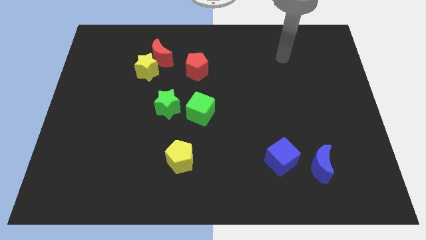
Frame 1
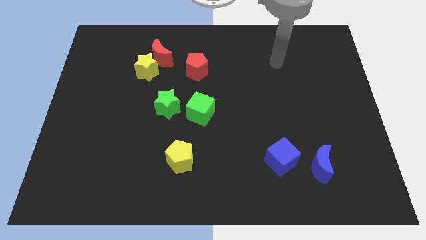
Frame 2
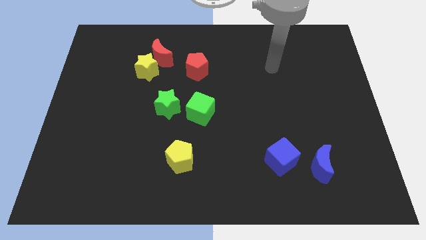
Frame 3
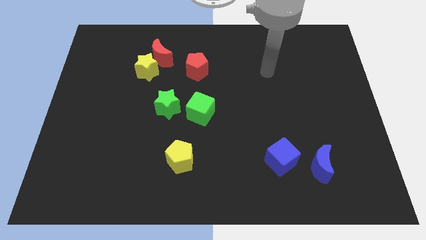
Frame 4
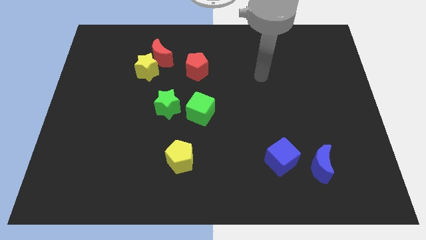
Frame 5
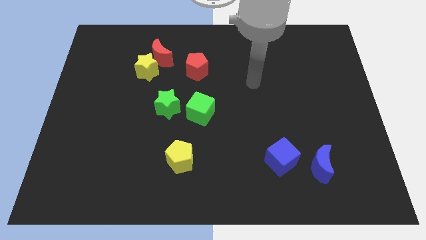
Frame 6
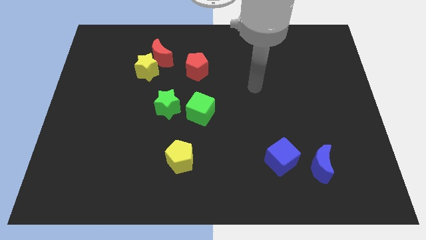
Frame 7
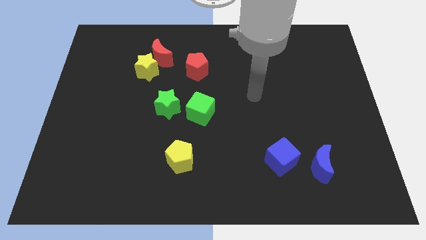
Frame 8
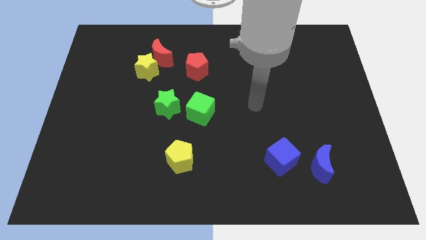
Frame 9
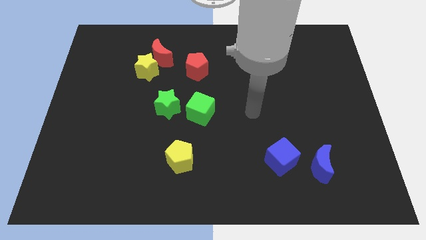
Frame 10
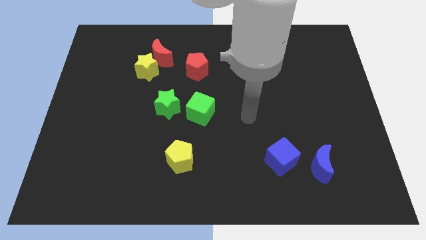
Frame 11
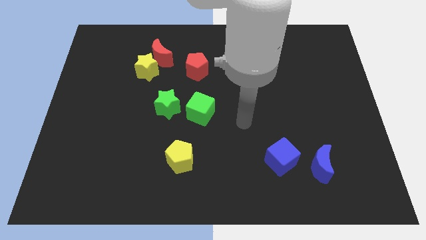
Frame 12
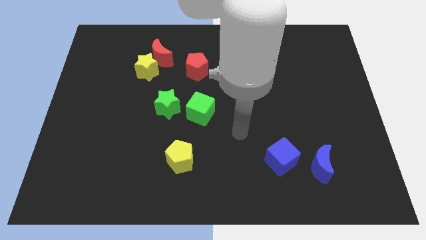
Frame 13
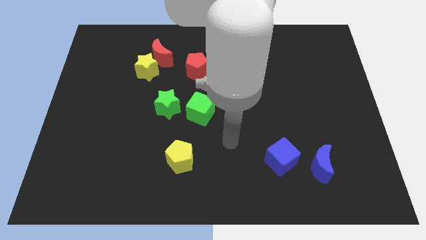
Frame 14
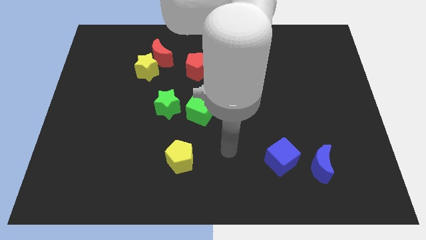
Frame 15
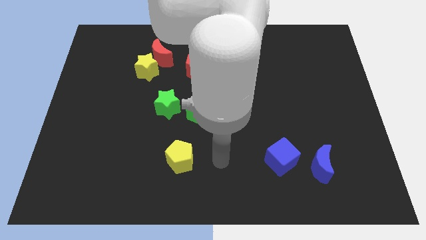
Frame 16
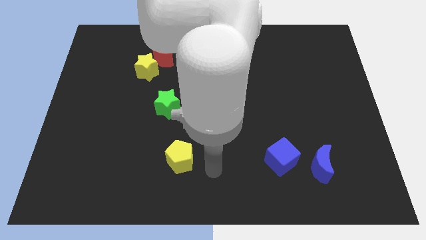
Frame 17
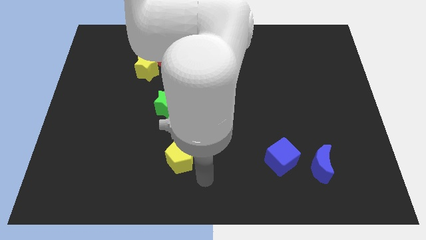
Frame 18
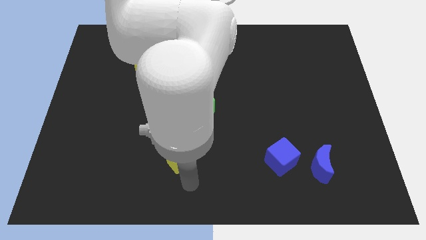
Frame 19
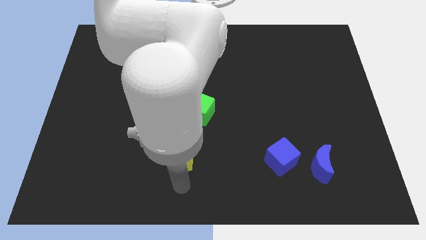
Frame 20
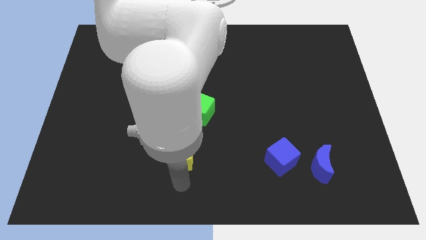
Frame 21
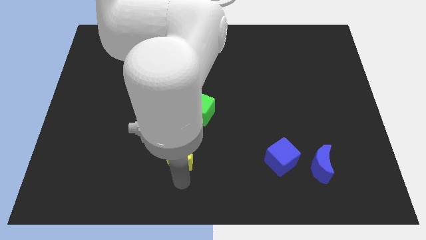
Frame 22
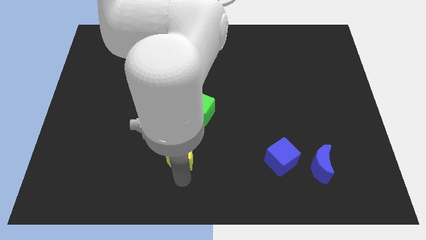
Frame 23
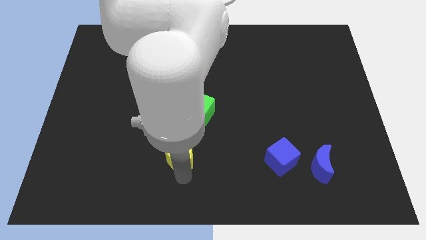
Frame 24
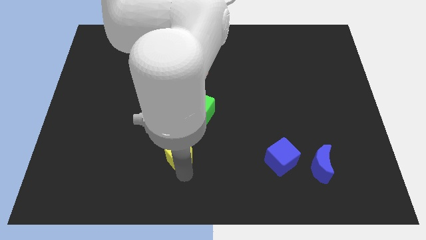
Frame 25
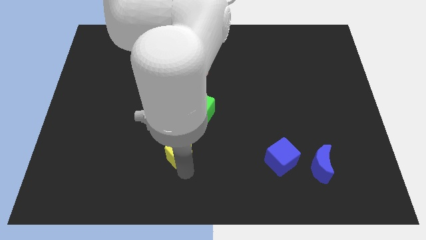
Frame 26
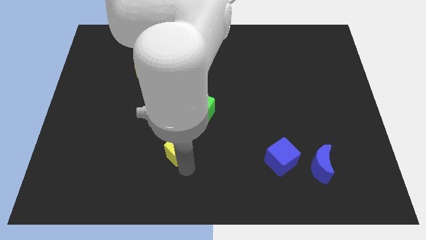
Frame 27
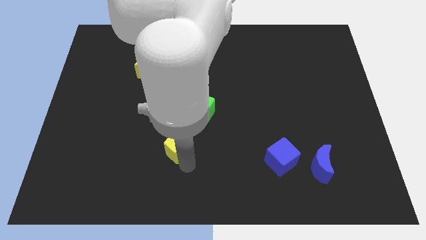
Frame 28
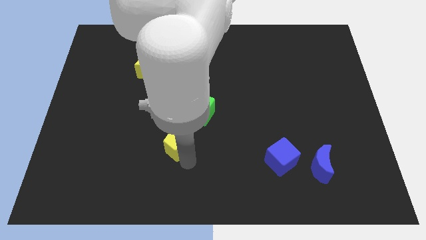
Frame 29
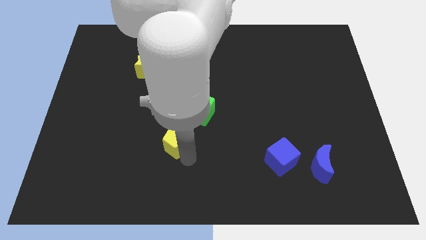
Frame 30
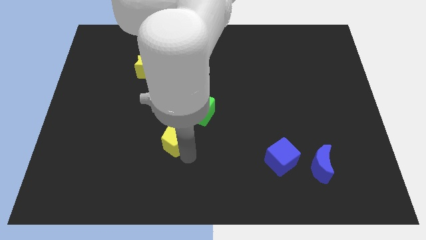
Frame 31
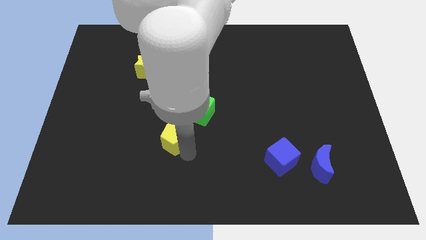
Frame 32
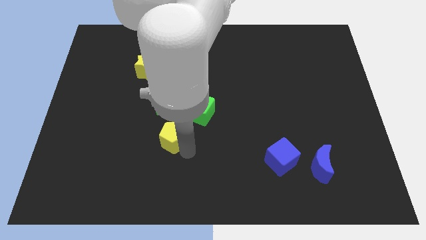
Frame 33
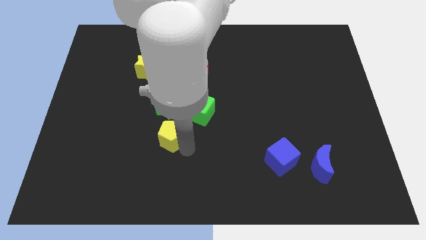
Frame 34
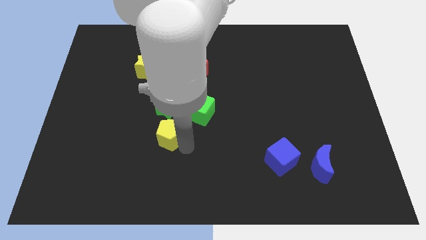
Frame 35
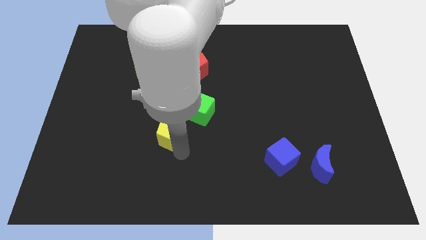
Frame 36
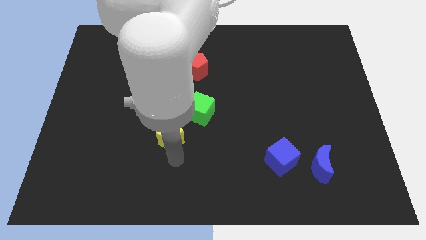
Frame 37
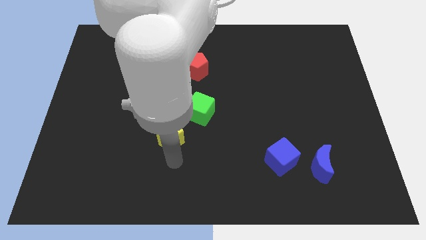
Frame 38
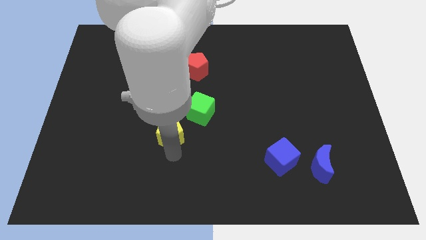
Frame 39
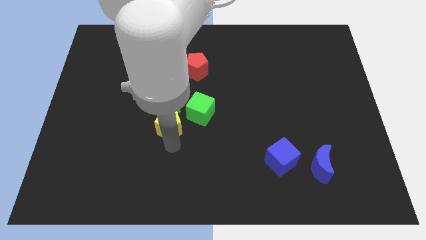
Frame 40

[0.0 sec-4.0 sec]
put the yellow pentagon to the green star

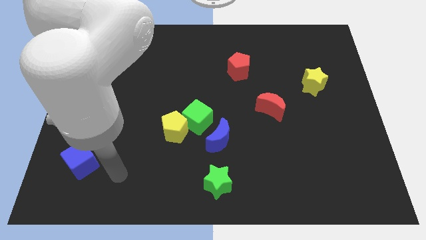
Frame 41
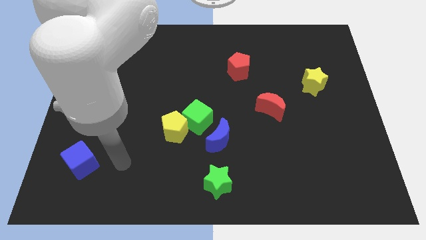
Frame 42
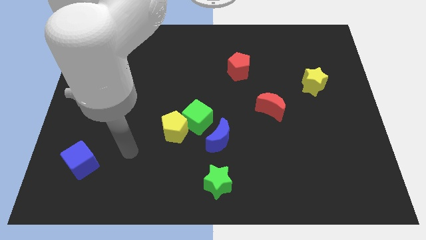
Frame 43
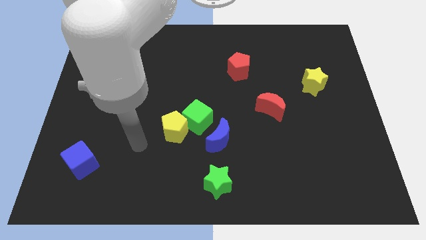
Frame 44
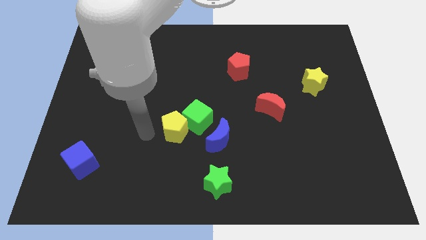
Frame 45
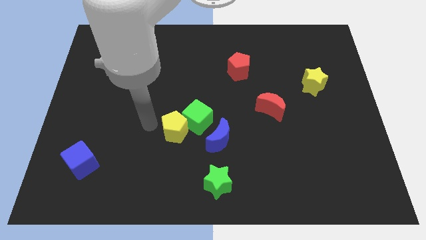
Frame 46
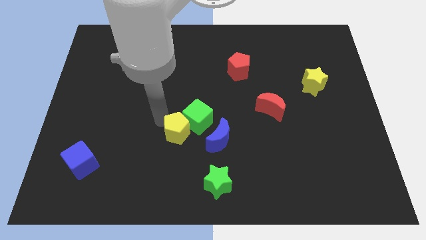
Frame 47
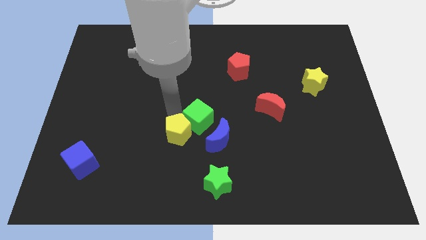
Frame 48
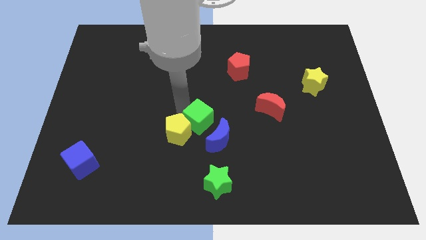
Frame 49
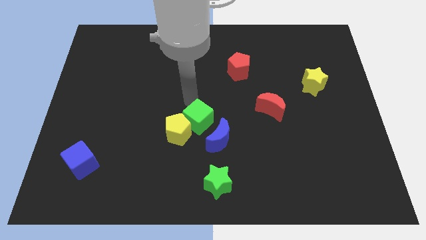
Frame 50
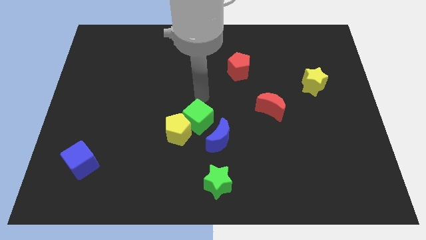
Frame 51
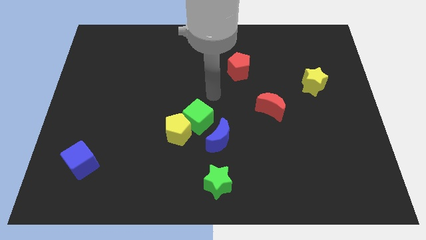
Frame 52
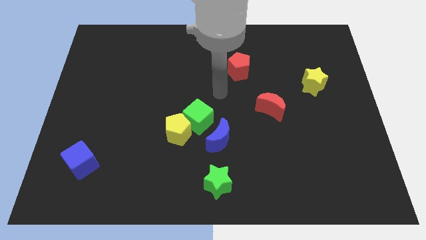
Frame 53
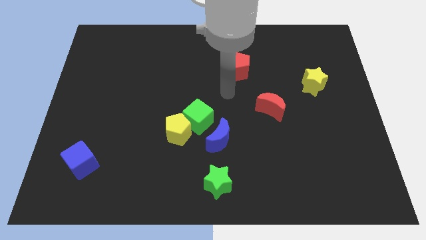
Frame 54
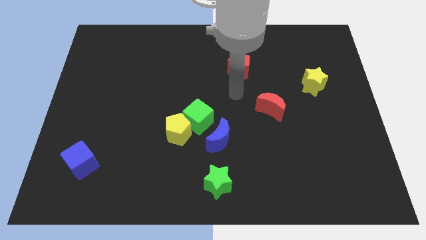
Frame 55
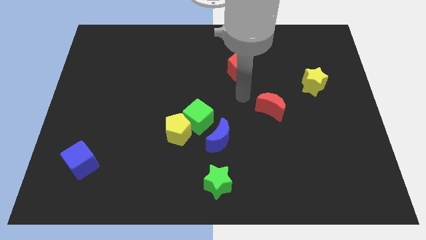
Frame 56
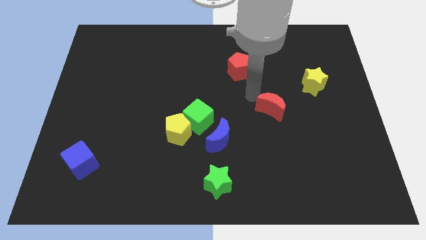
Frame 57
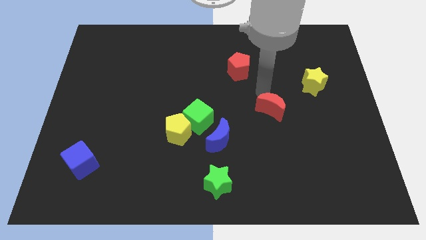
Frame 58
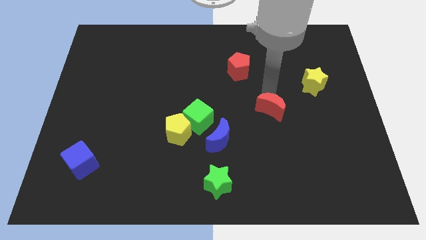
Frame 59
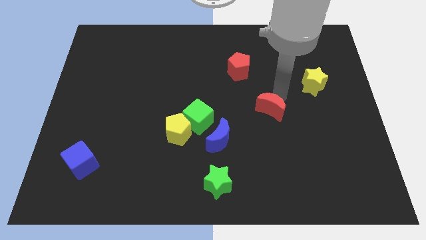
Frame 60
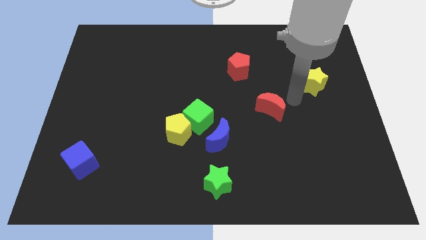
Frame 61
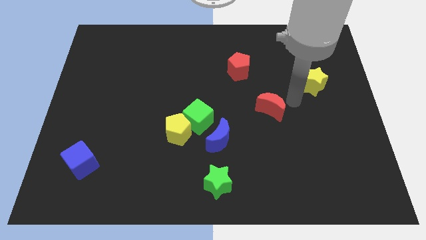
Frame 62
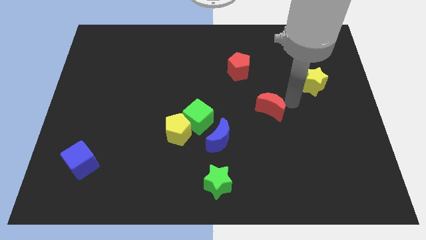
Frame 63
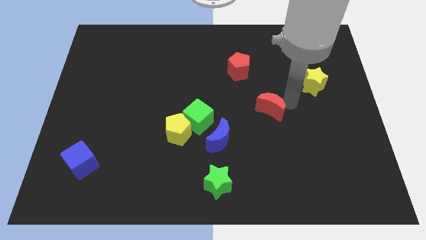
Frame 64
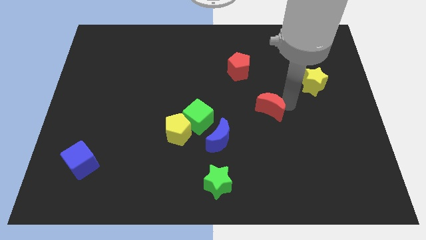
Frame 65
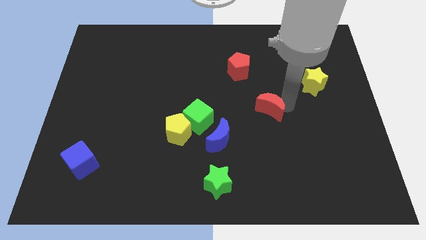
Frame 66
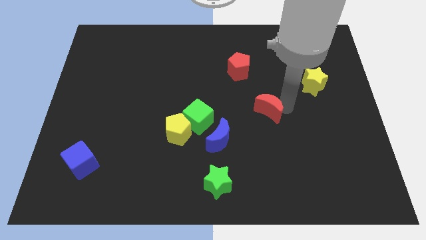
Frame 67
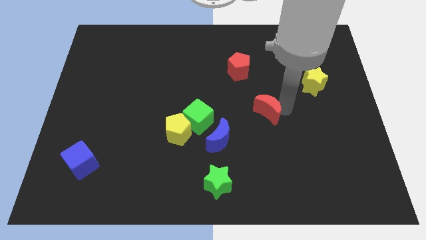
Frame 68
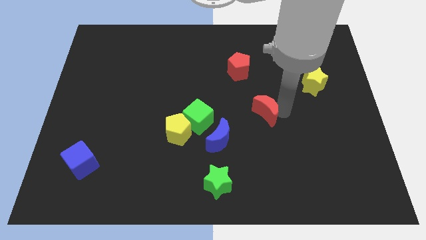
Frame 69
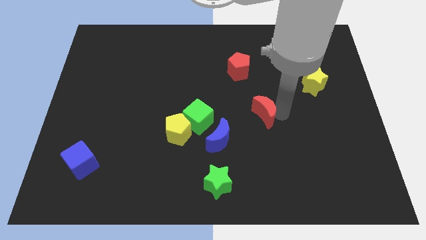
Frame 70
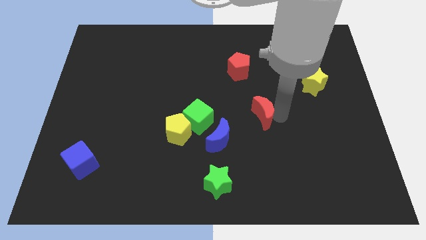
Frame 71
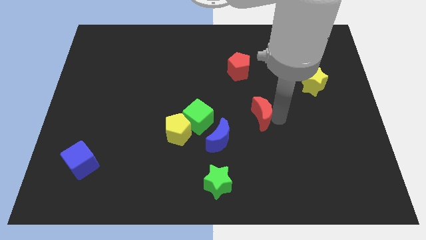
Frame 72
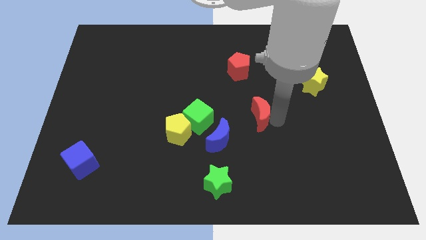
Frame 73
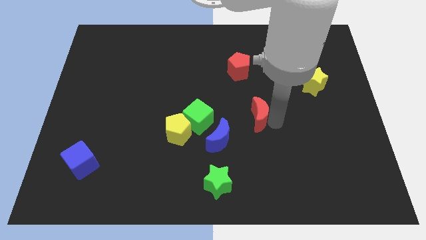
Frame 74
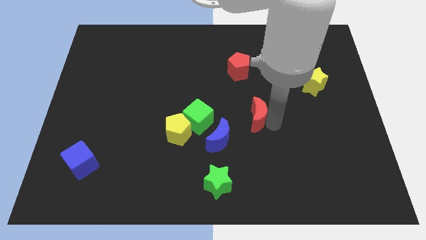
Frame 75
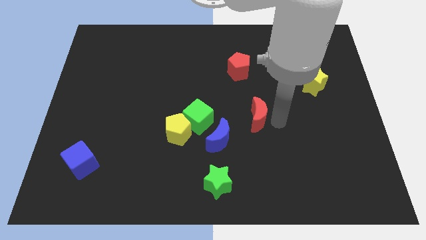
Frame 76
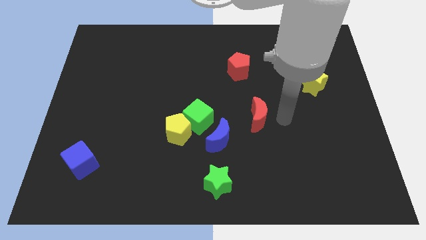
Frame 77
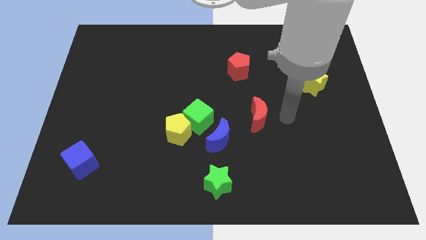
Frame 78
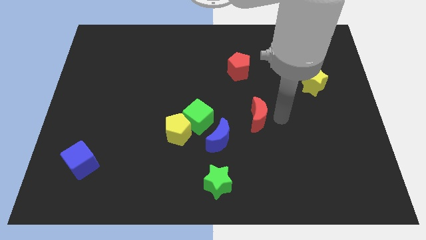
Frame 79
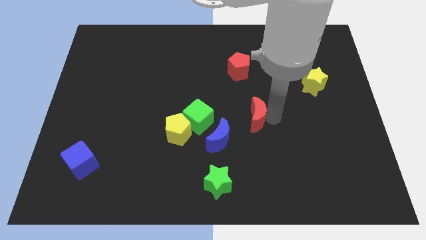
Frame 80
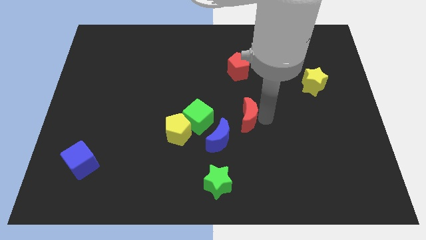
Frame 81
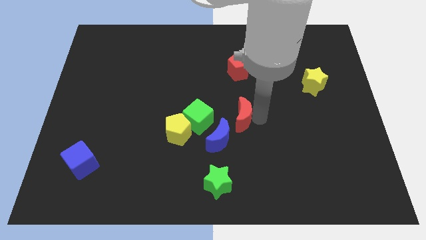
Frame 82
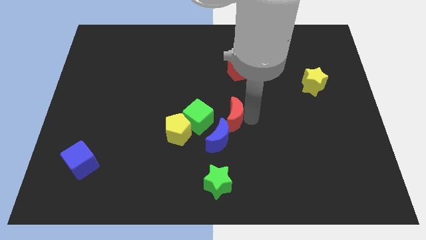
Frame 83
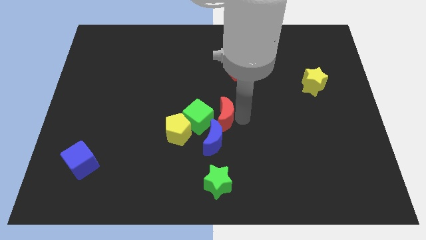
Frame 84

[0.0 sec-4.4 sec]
push the red moon next to the green cube

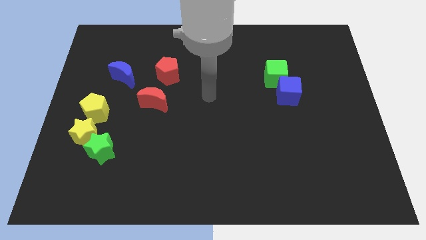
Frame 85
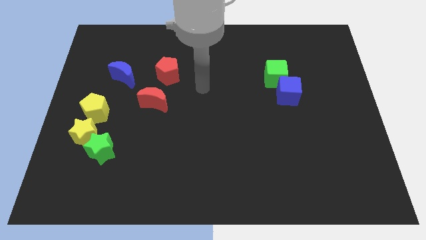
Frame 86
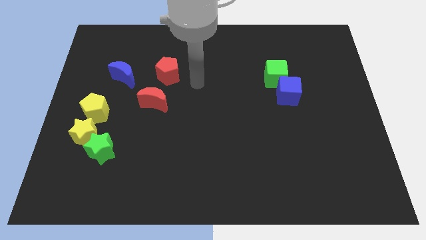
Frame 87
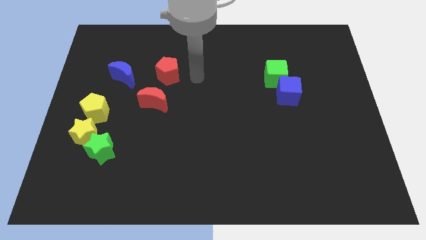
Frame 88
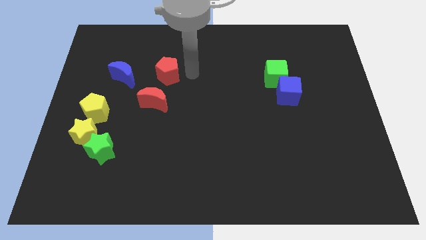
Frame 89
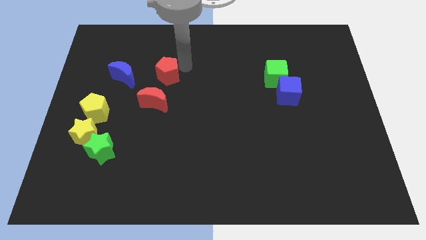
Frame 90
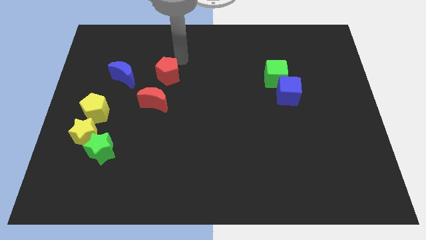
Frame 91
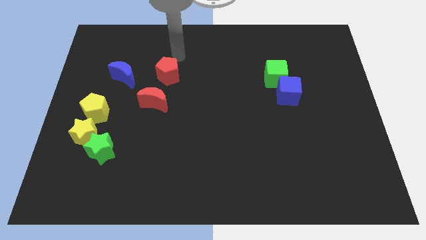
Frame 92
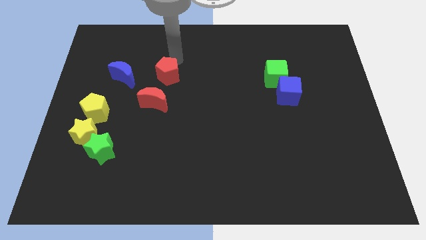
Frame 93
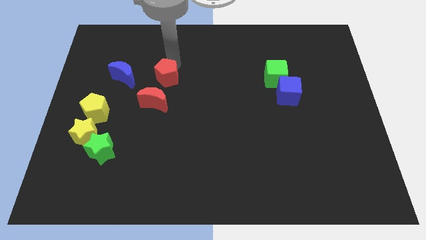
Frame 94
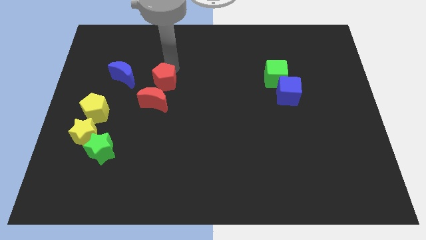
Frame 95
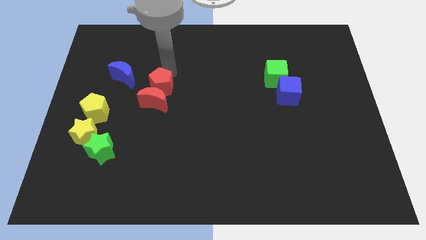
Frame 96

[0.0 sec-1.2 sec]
move the red pentagon next to the red moon
